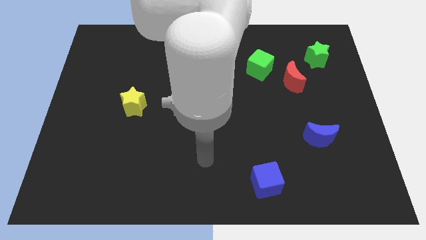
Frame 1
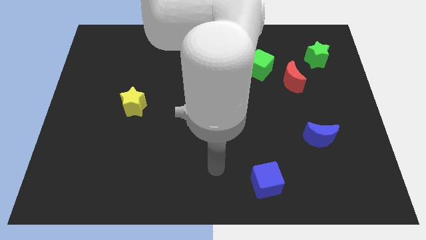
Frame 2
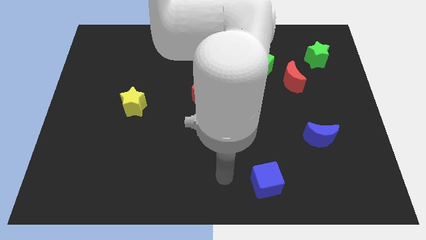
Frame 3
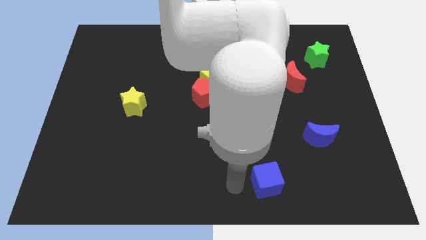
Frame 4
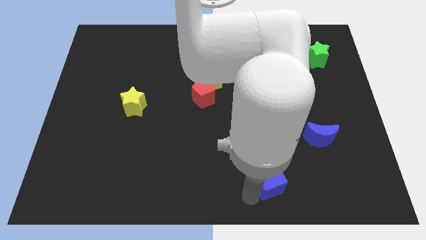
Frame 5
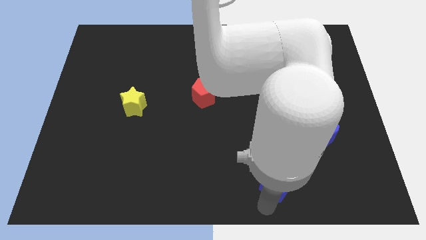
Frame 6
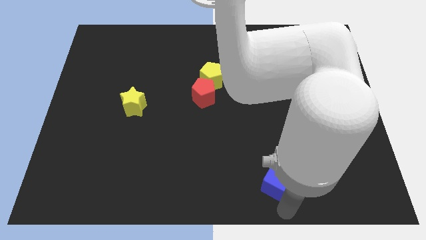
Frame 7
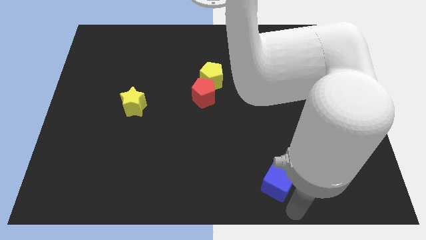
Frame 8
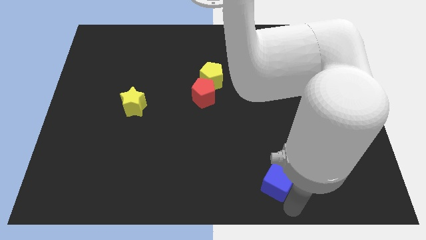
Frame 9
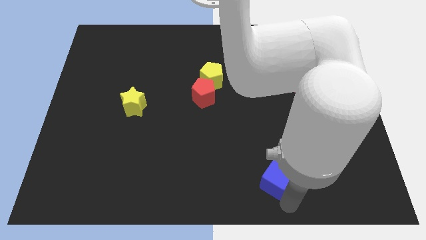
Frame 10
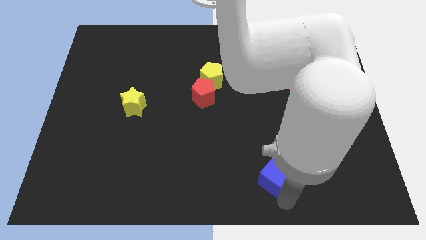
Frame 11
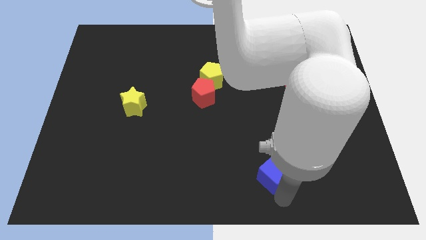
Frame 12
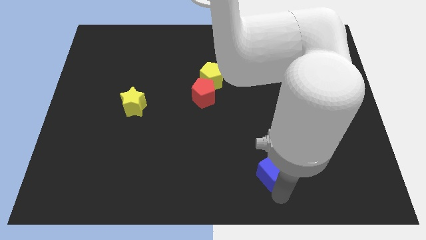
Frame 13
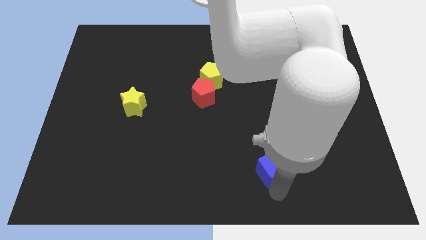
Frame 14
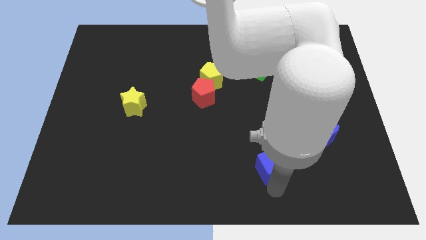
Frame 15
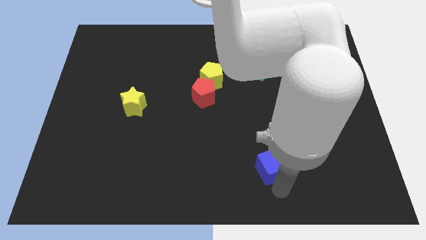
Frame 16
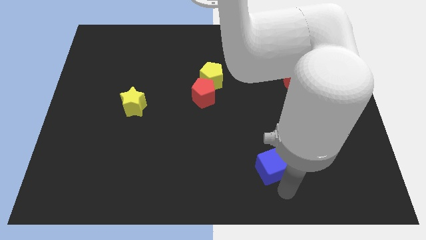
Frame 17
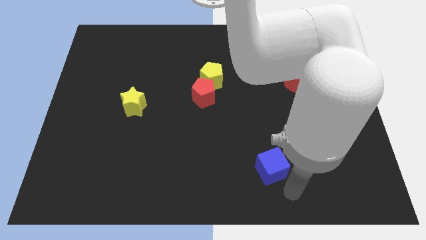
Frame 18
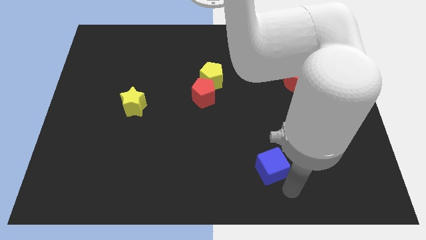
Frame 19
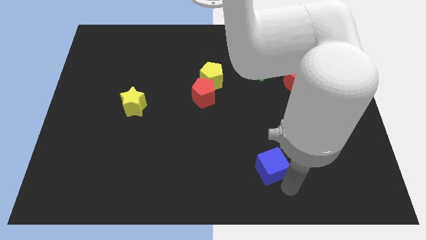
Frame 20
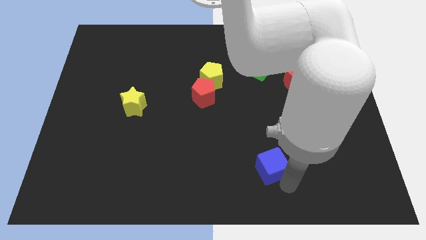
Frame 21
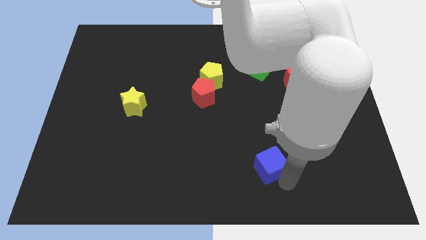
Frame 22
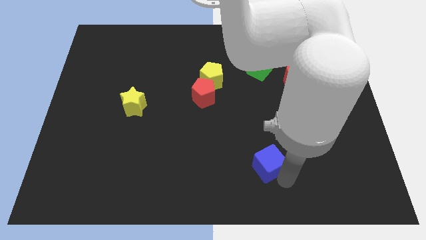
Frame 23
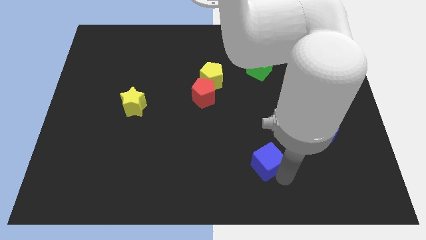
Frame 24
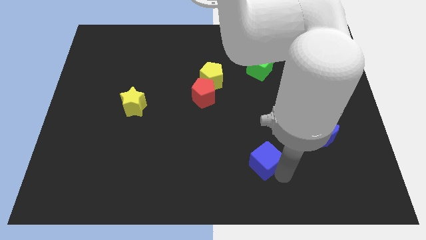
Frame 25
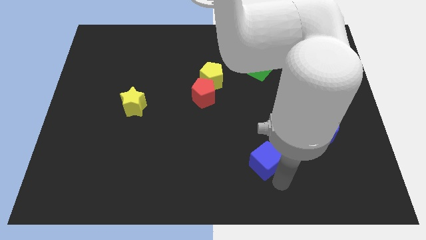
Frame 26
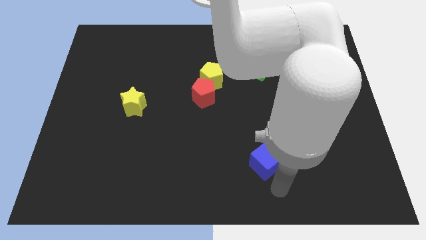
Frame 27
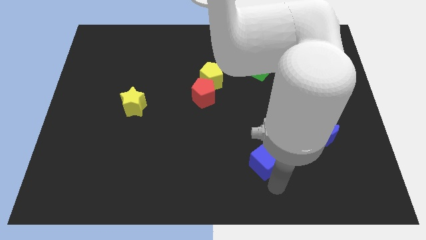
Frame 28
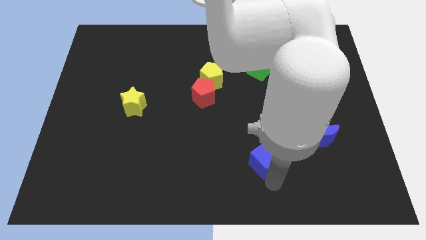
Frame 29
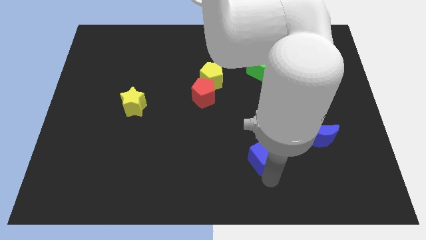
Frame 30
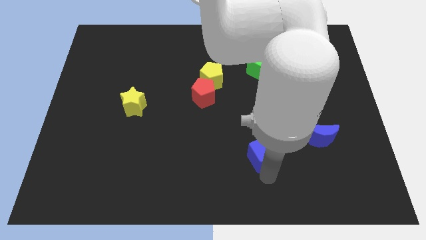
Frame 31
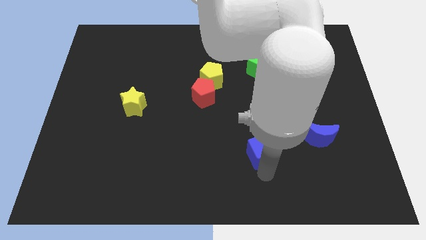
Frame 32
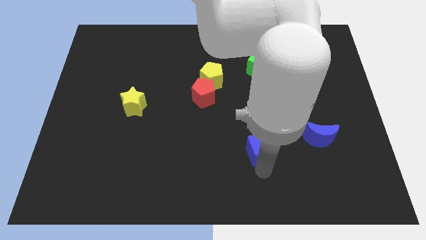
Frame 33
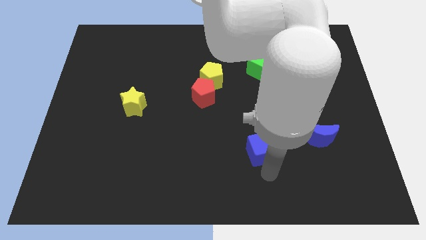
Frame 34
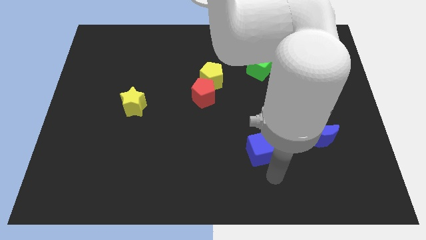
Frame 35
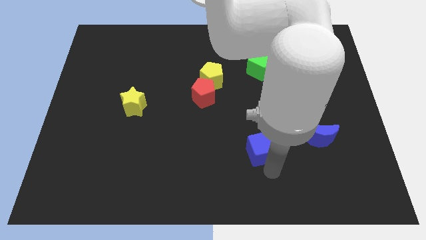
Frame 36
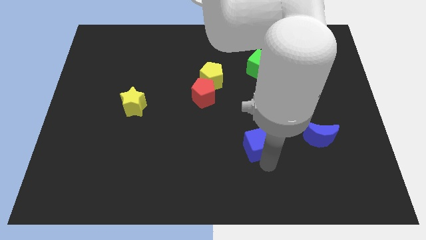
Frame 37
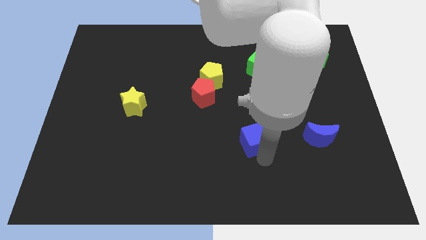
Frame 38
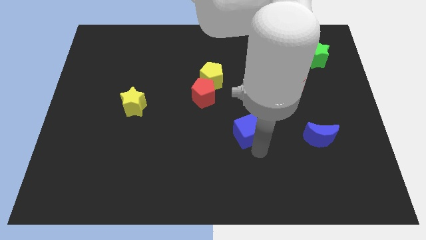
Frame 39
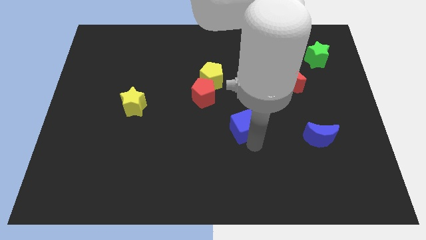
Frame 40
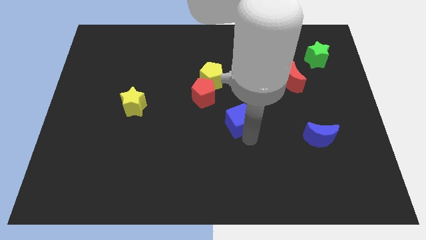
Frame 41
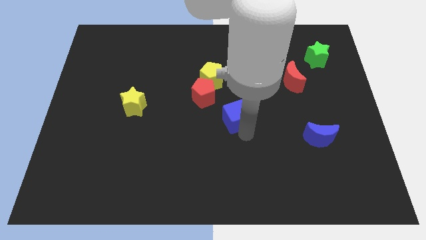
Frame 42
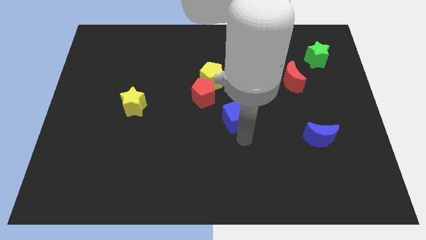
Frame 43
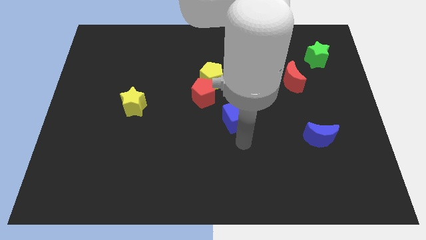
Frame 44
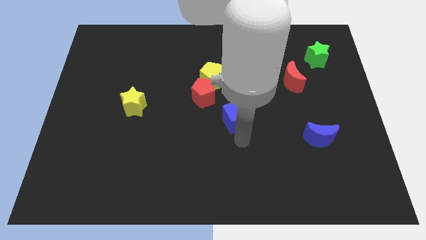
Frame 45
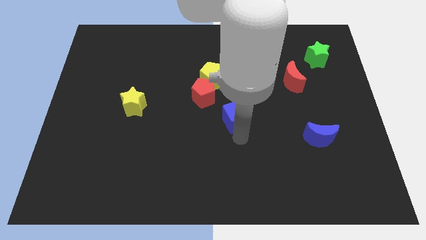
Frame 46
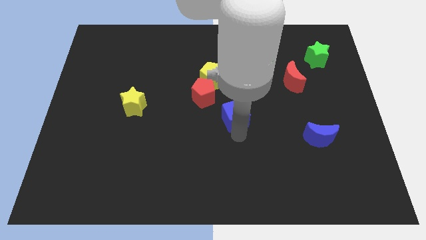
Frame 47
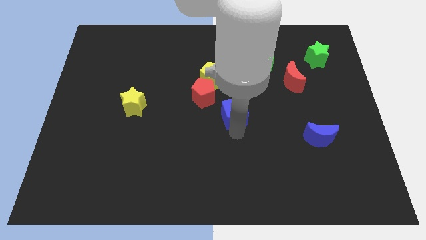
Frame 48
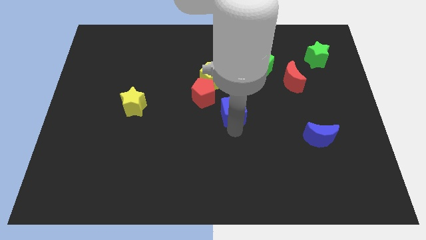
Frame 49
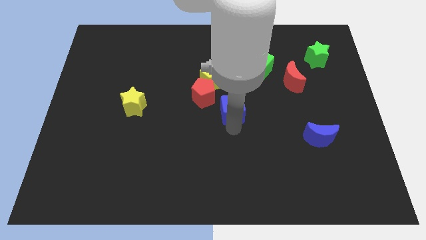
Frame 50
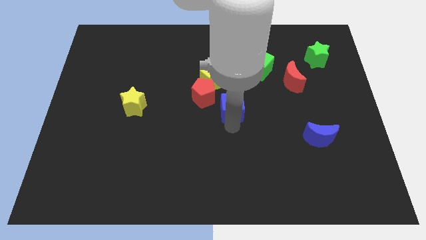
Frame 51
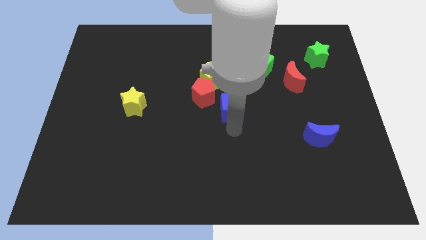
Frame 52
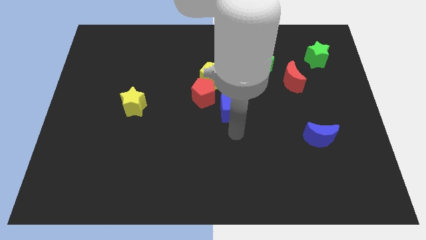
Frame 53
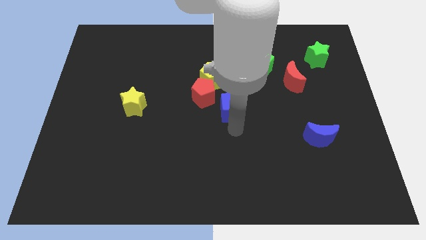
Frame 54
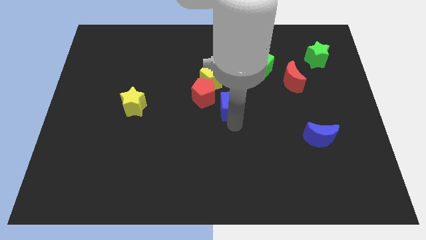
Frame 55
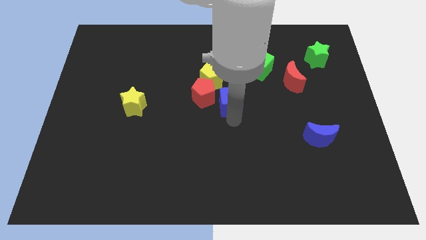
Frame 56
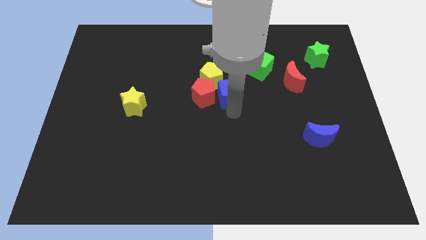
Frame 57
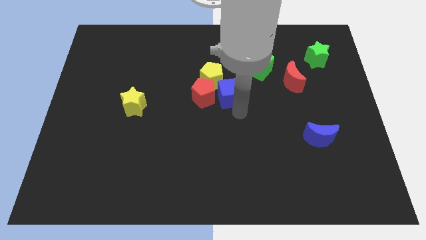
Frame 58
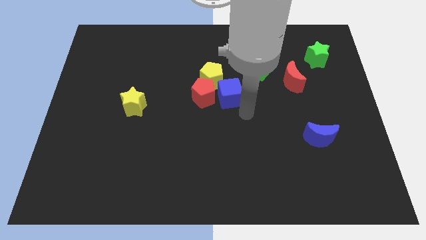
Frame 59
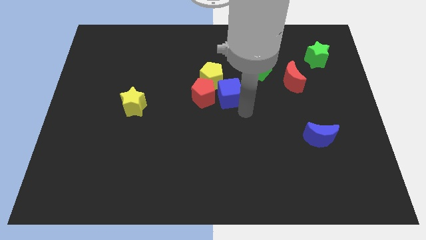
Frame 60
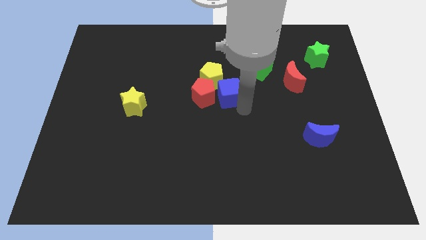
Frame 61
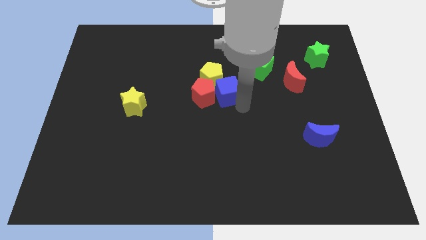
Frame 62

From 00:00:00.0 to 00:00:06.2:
push the blue cube close to the yellow pentagon

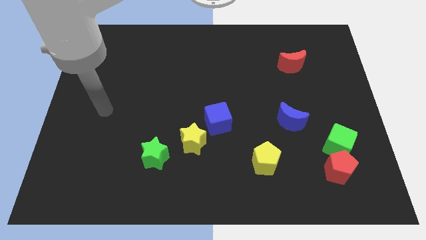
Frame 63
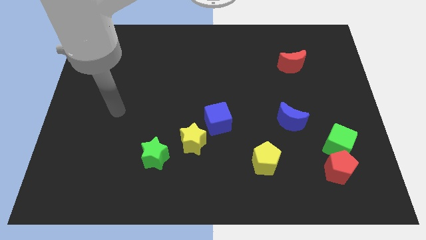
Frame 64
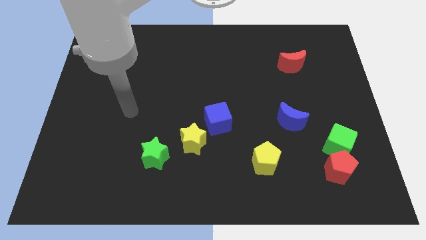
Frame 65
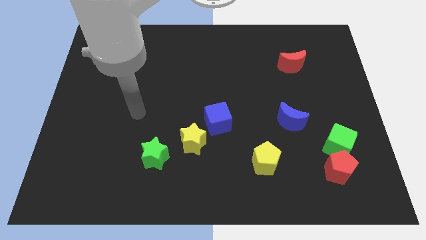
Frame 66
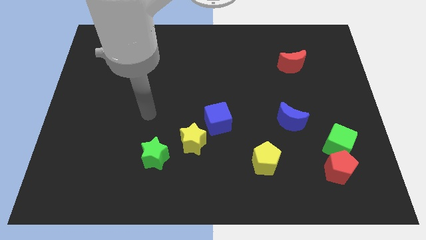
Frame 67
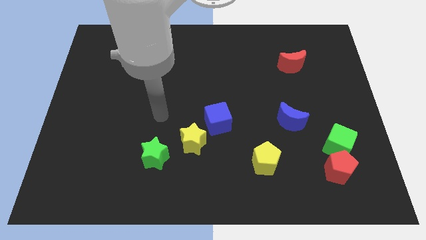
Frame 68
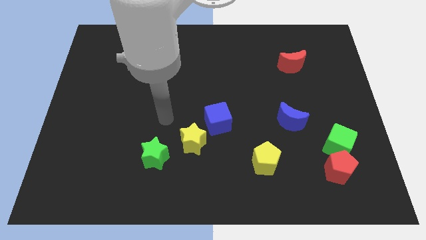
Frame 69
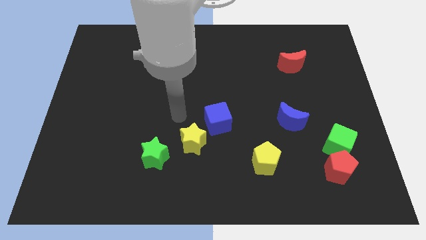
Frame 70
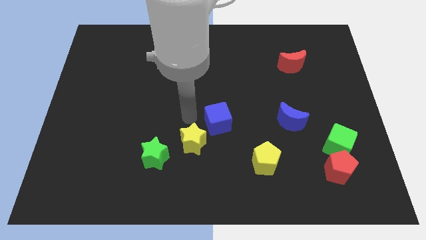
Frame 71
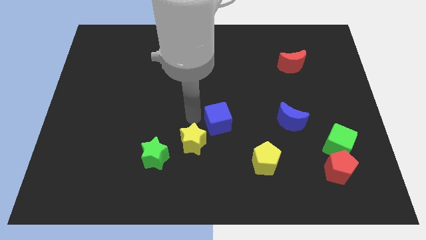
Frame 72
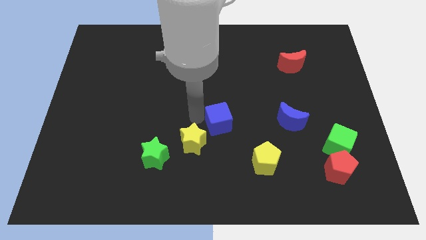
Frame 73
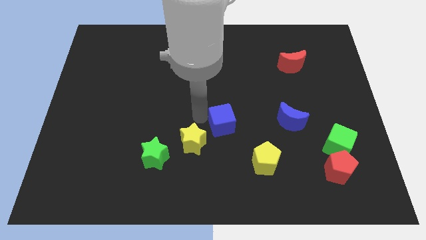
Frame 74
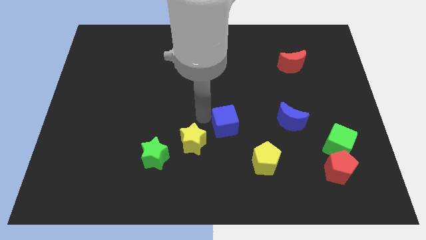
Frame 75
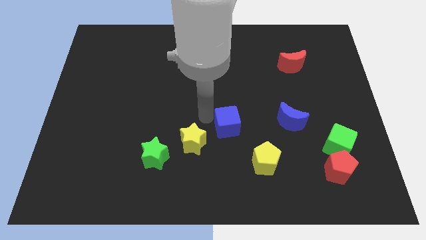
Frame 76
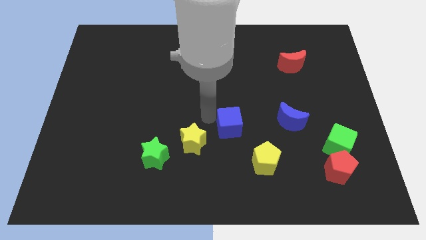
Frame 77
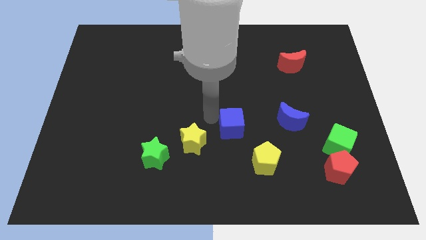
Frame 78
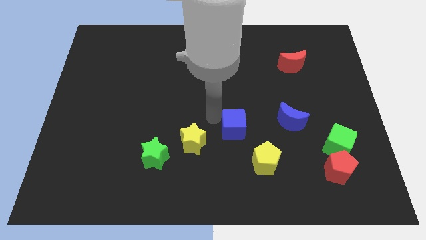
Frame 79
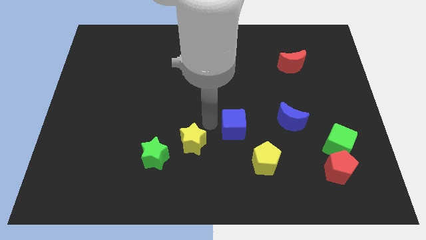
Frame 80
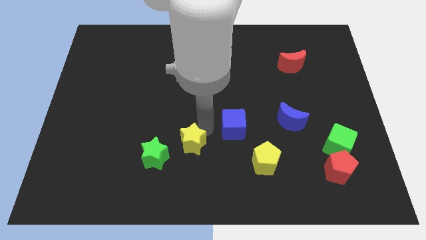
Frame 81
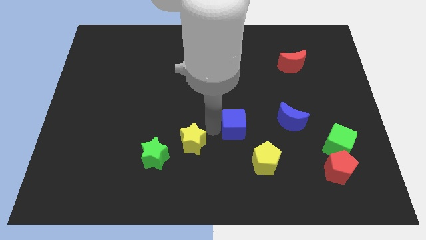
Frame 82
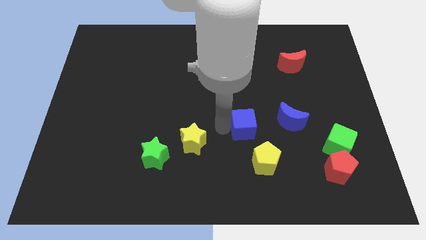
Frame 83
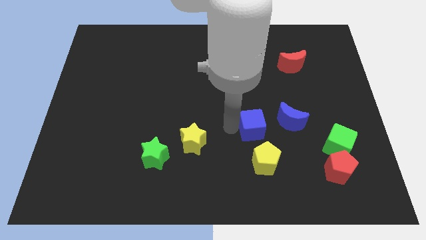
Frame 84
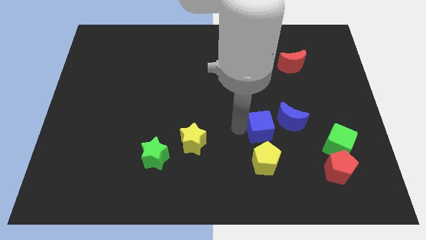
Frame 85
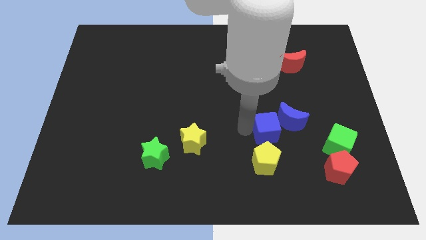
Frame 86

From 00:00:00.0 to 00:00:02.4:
move the blue cube next to the blue moon
